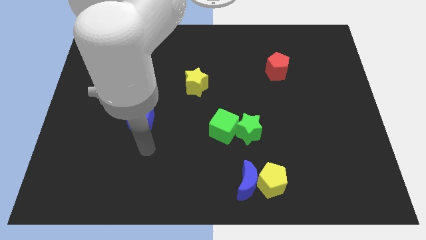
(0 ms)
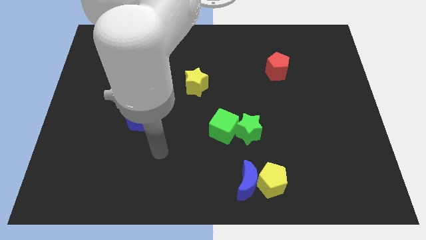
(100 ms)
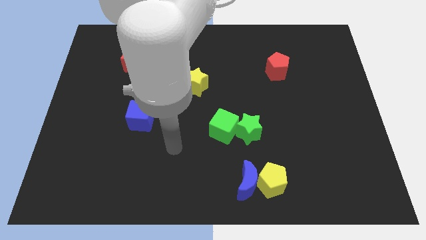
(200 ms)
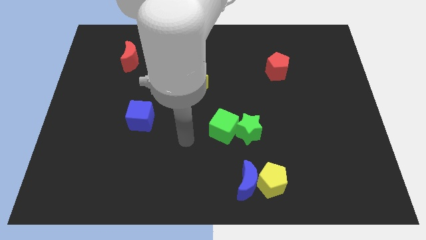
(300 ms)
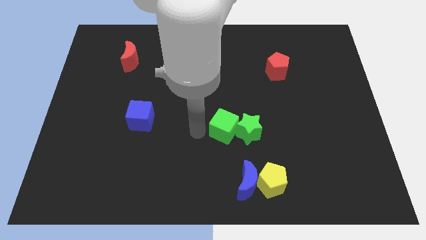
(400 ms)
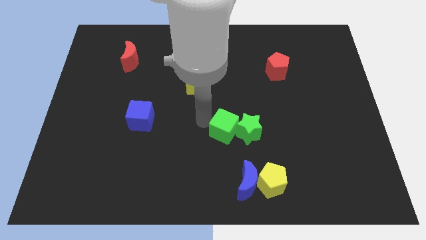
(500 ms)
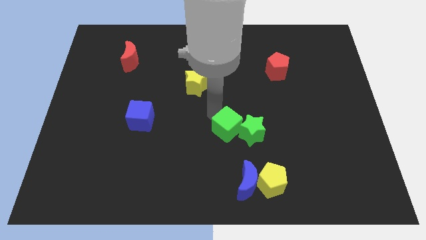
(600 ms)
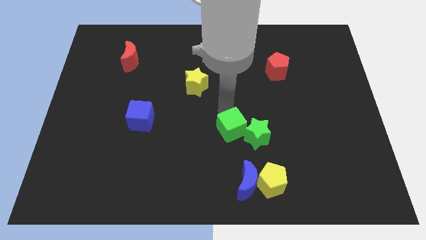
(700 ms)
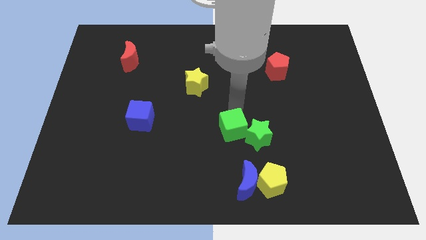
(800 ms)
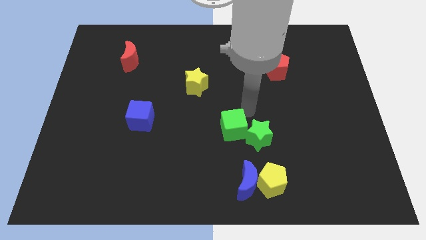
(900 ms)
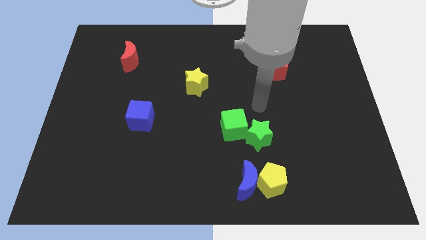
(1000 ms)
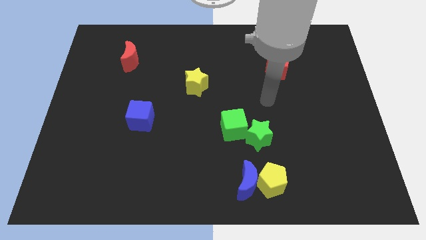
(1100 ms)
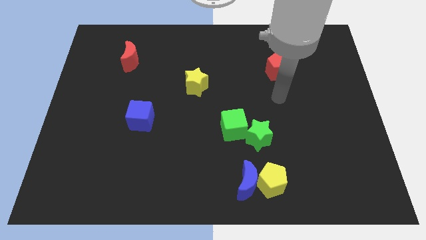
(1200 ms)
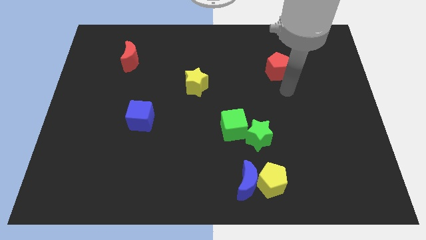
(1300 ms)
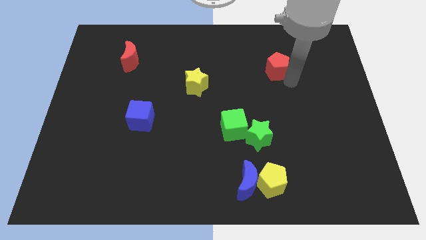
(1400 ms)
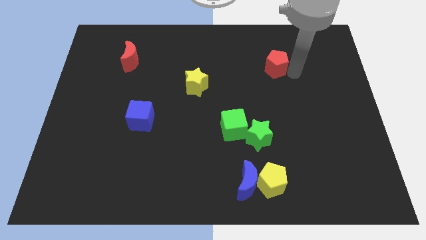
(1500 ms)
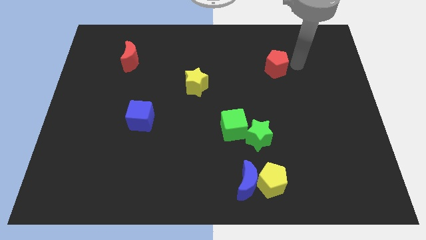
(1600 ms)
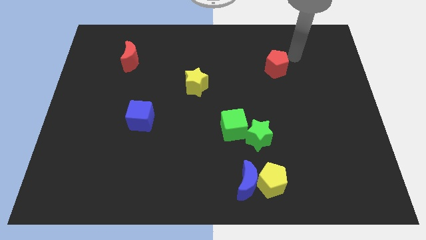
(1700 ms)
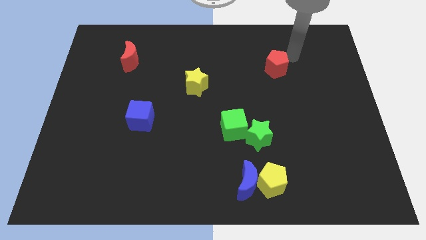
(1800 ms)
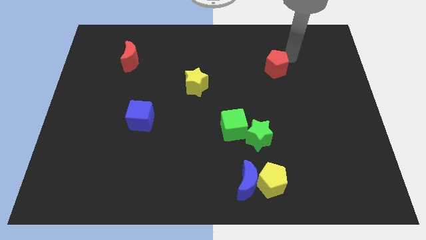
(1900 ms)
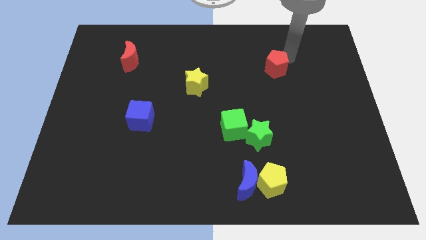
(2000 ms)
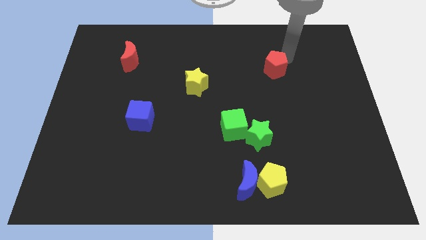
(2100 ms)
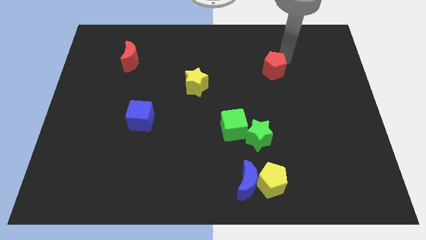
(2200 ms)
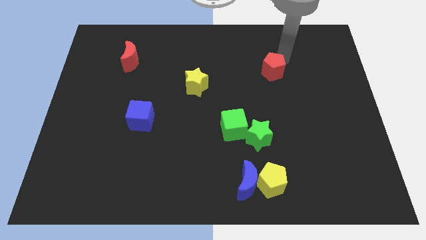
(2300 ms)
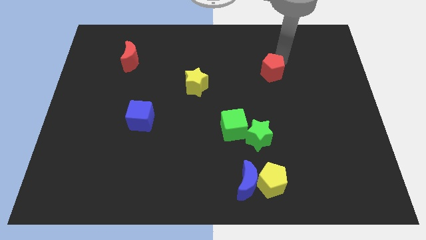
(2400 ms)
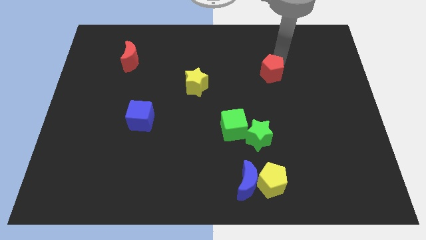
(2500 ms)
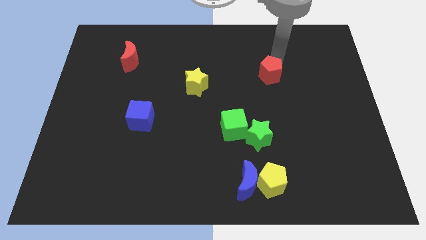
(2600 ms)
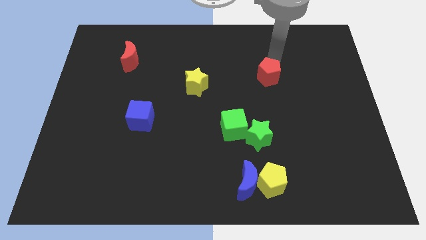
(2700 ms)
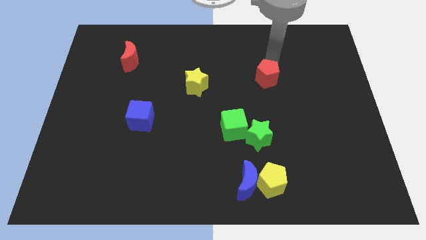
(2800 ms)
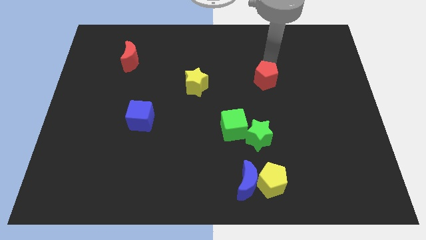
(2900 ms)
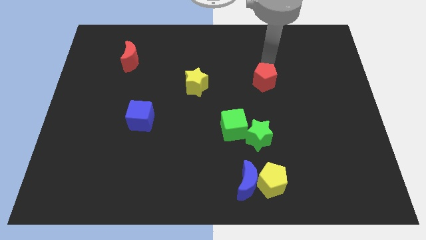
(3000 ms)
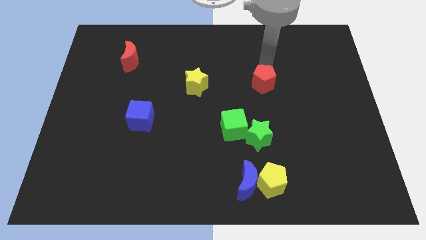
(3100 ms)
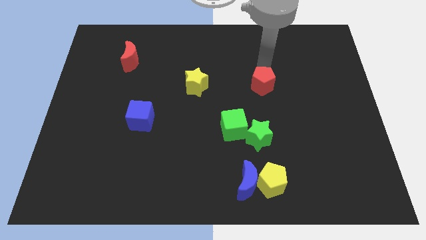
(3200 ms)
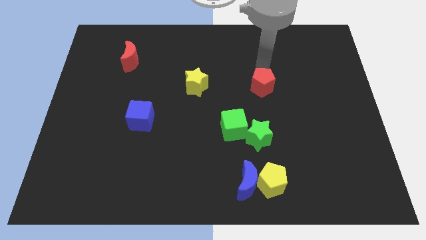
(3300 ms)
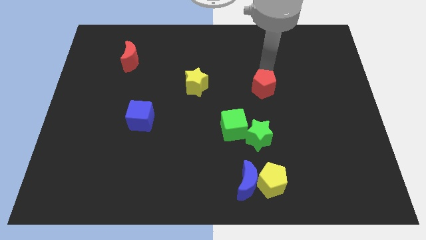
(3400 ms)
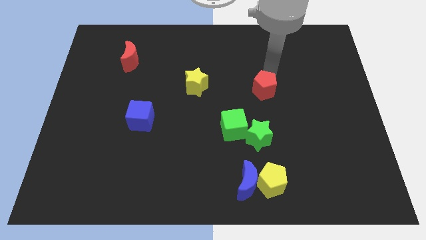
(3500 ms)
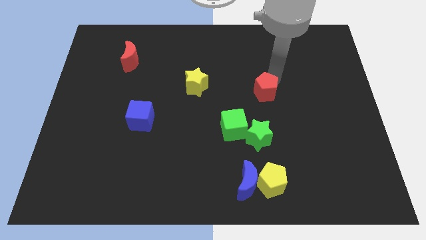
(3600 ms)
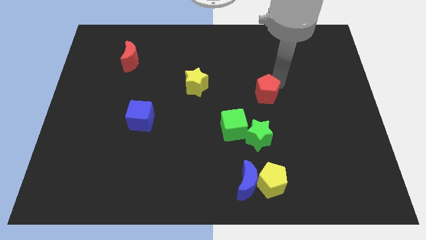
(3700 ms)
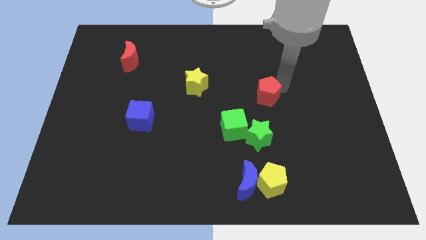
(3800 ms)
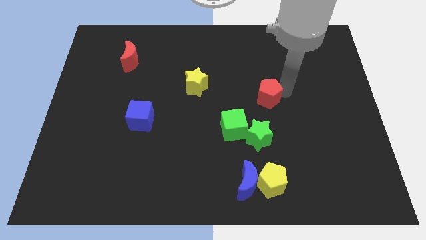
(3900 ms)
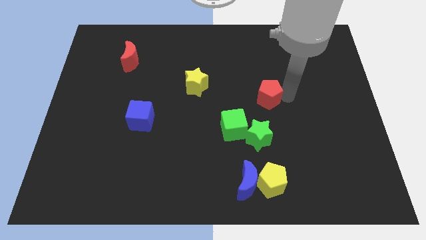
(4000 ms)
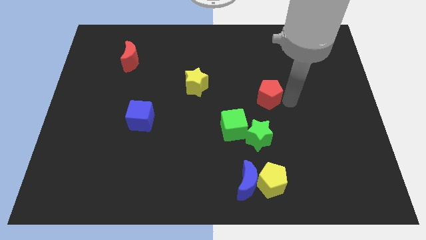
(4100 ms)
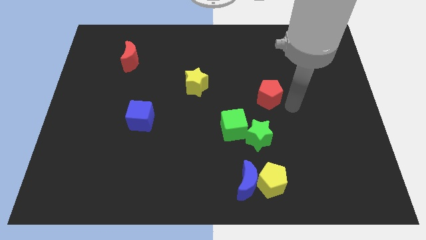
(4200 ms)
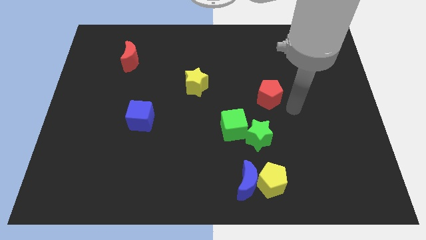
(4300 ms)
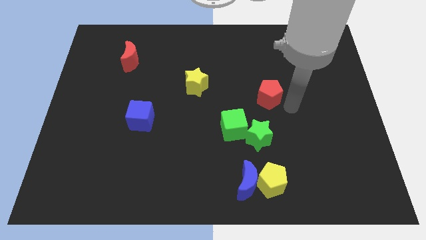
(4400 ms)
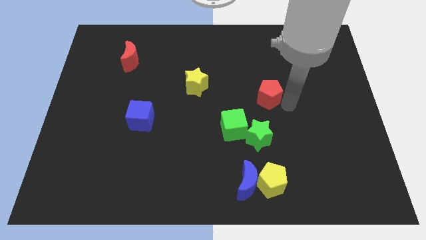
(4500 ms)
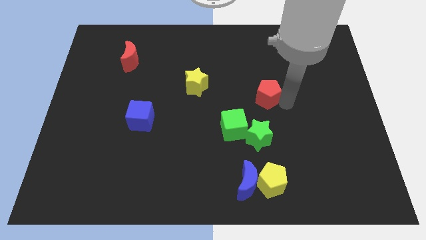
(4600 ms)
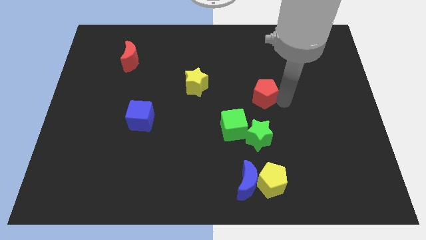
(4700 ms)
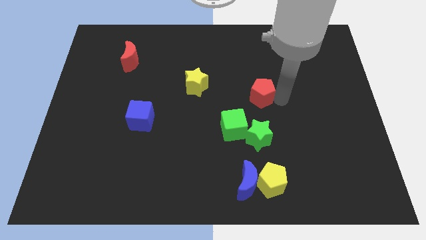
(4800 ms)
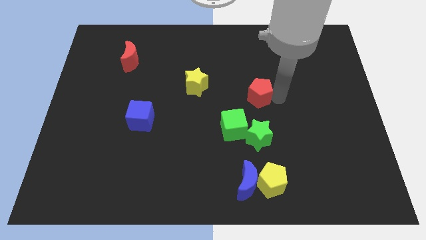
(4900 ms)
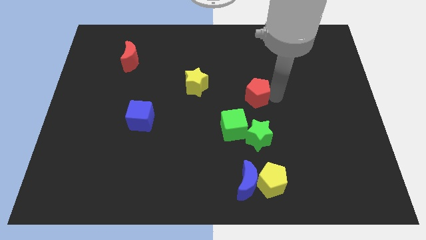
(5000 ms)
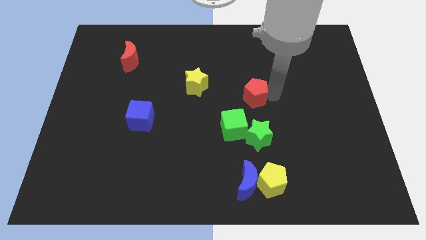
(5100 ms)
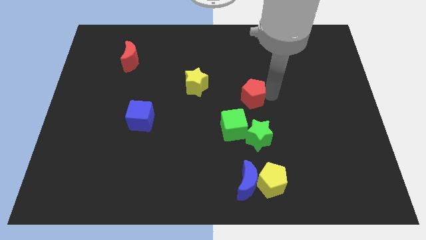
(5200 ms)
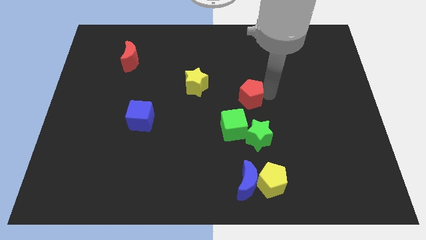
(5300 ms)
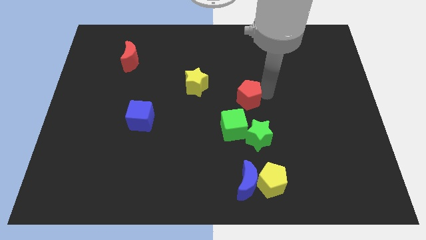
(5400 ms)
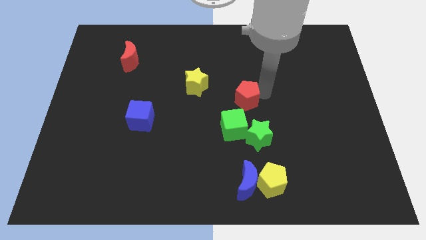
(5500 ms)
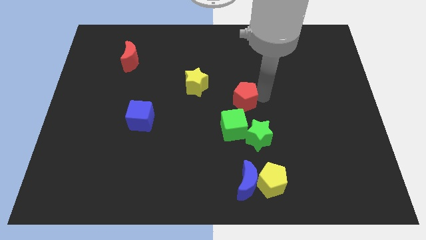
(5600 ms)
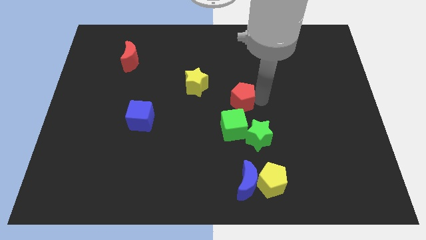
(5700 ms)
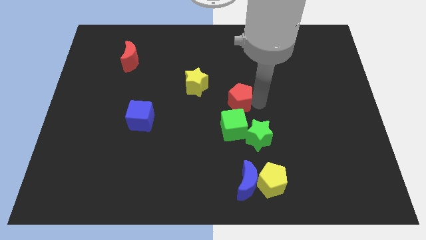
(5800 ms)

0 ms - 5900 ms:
move the red pentagon diagonally down and to the right of the yellow star

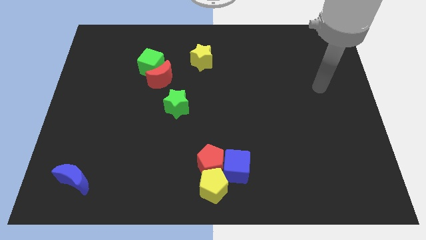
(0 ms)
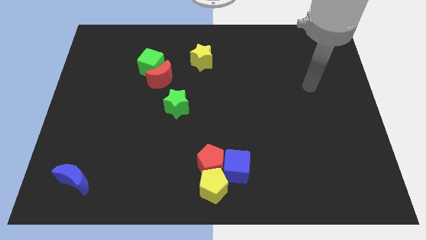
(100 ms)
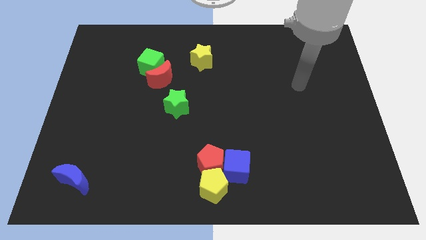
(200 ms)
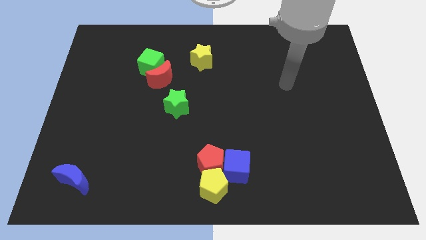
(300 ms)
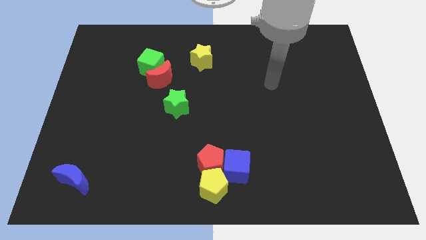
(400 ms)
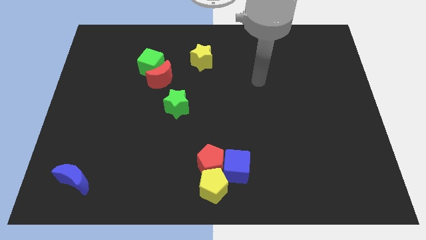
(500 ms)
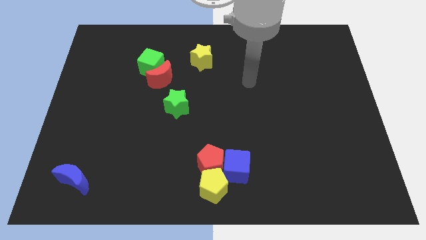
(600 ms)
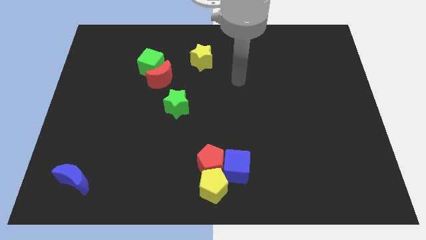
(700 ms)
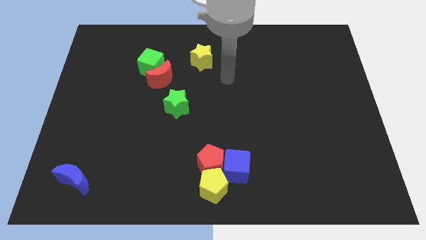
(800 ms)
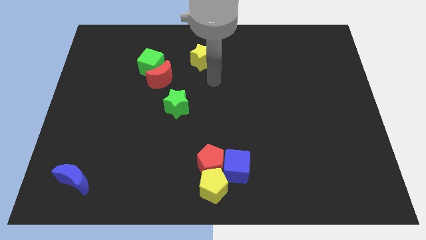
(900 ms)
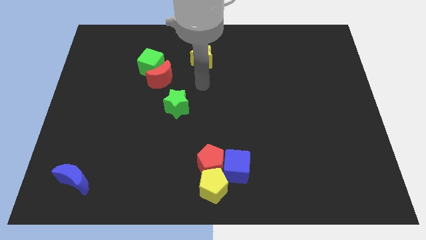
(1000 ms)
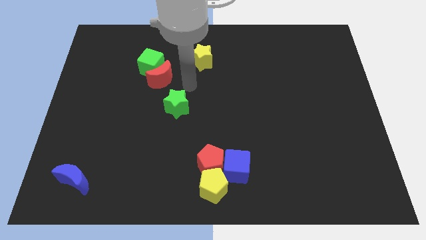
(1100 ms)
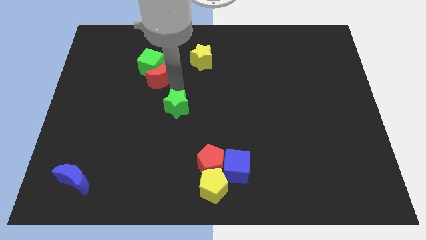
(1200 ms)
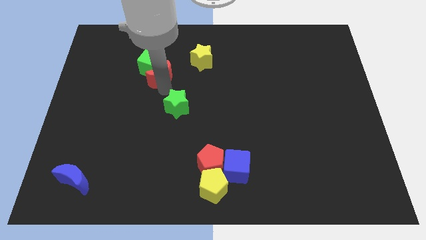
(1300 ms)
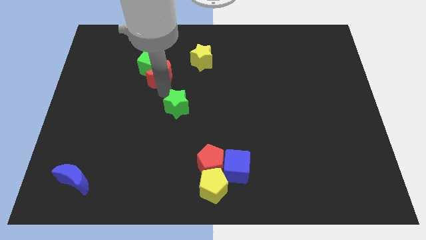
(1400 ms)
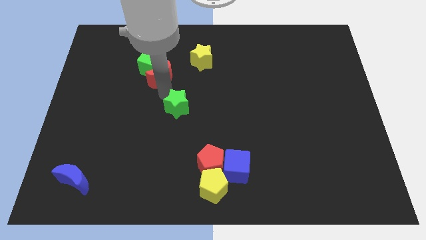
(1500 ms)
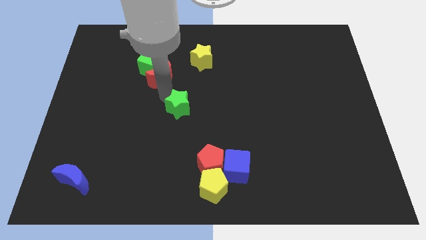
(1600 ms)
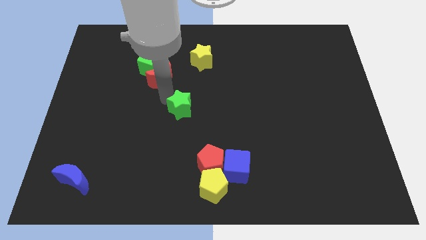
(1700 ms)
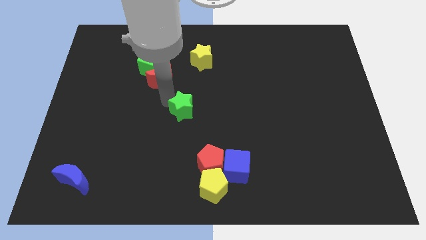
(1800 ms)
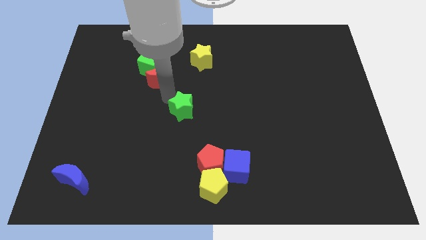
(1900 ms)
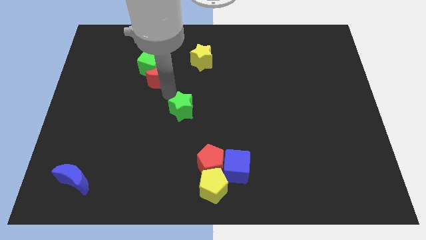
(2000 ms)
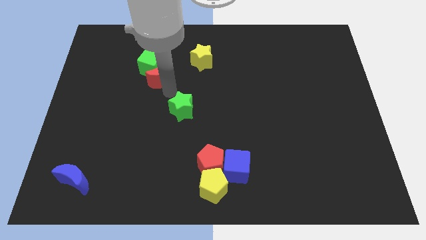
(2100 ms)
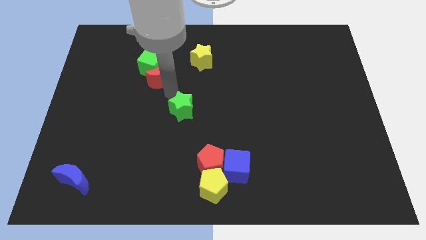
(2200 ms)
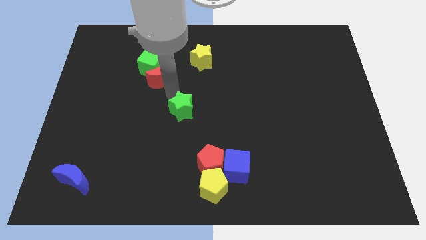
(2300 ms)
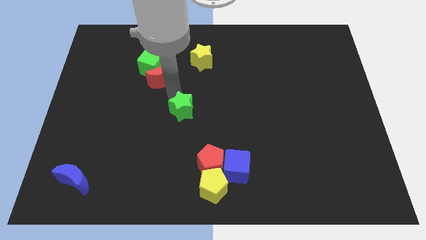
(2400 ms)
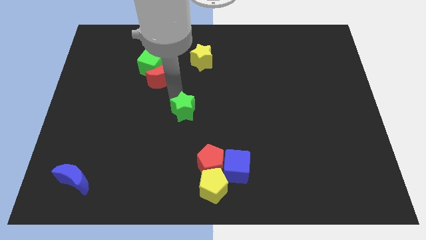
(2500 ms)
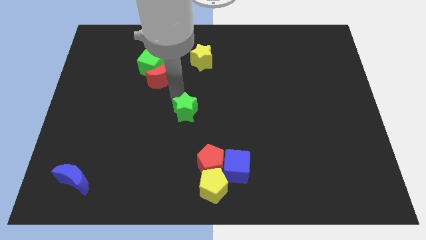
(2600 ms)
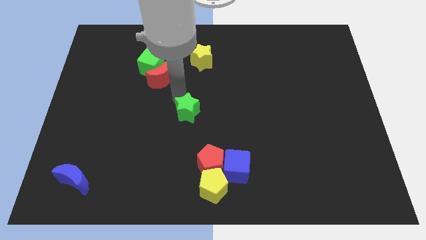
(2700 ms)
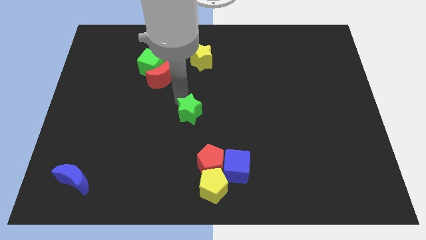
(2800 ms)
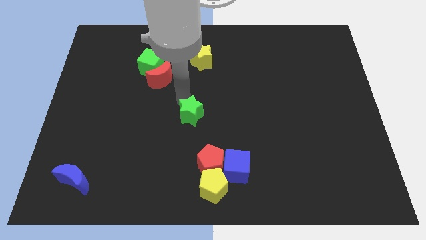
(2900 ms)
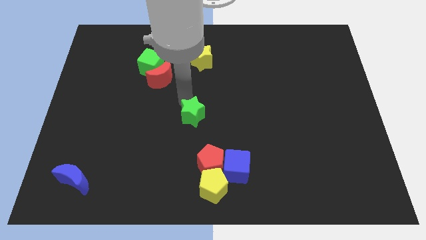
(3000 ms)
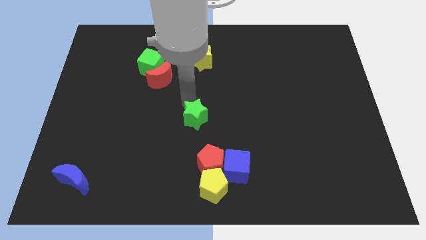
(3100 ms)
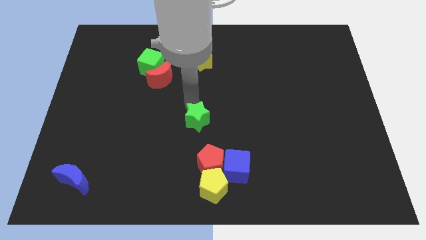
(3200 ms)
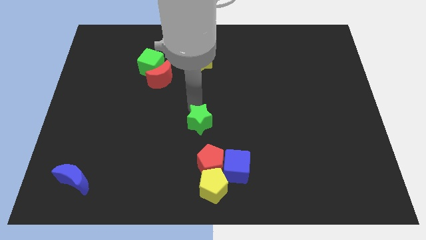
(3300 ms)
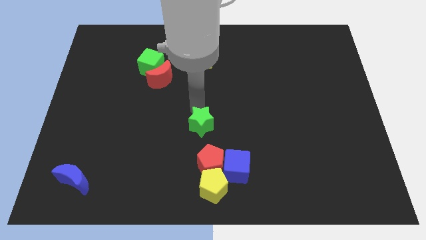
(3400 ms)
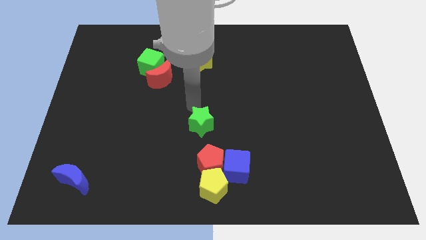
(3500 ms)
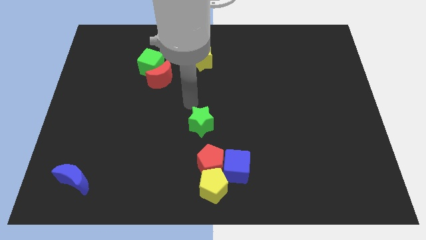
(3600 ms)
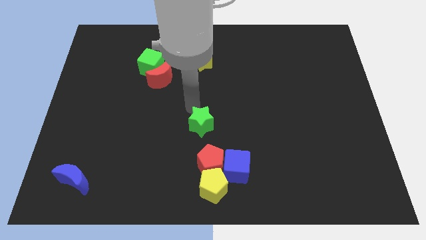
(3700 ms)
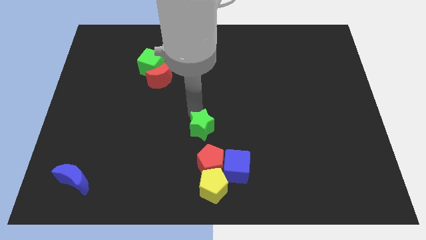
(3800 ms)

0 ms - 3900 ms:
slide the green star to the top left of the blue cube
